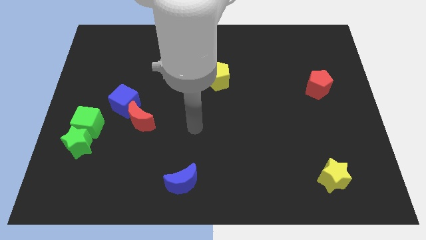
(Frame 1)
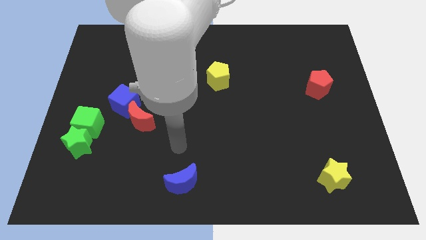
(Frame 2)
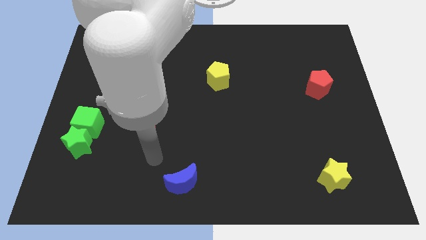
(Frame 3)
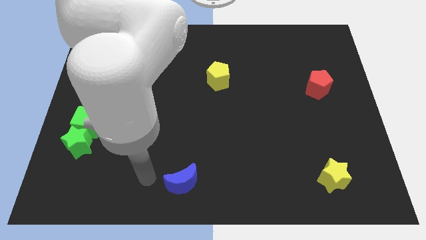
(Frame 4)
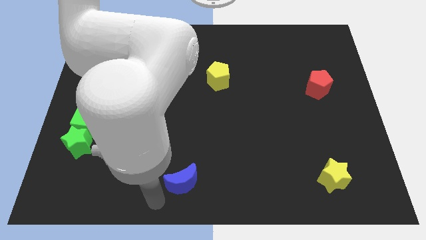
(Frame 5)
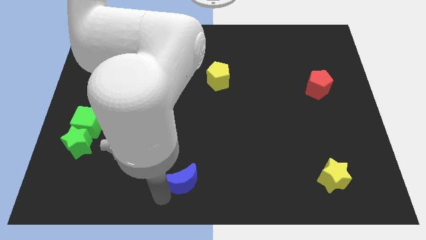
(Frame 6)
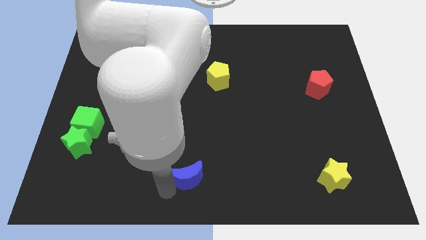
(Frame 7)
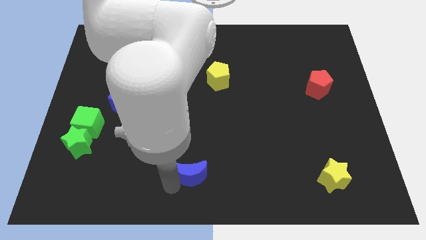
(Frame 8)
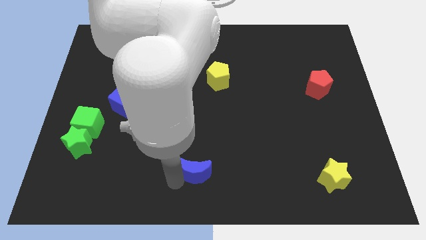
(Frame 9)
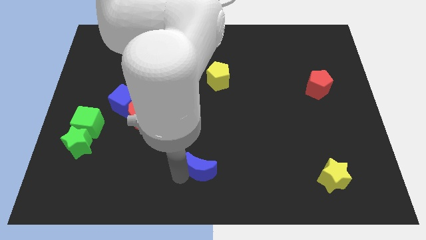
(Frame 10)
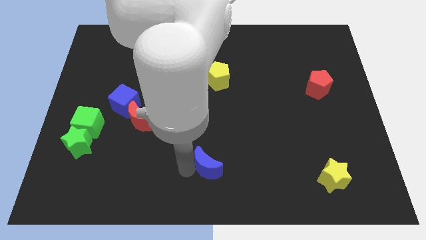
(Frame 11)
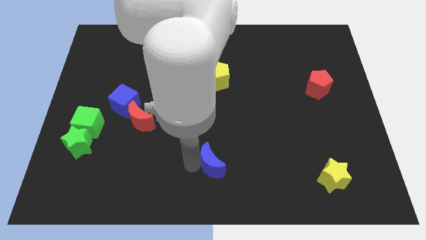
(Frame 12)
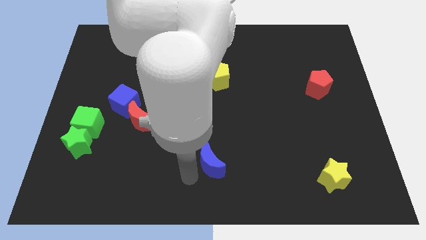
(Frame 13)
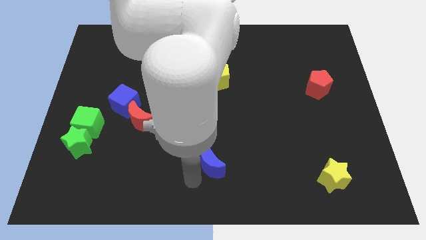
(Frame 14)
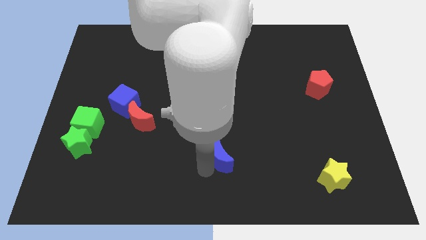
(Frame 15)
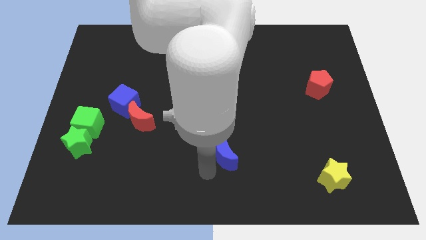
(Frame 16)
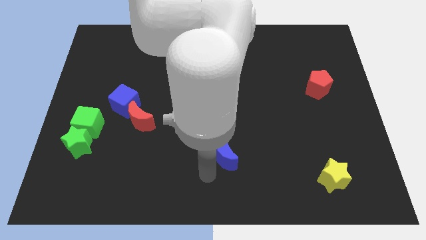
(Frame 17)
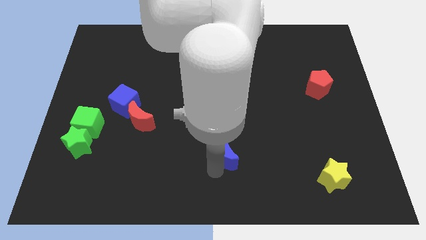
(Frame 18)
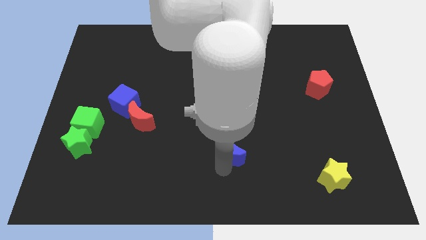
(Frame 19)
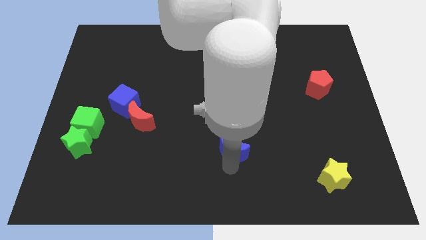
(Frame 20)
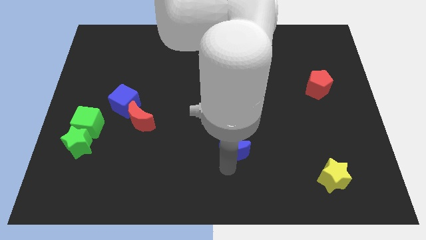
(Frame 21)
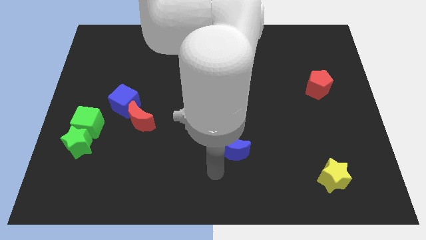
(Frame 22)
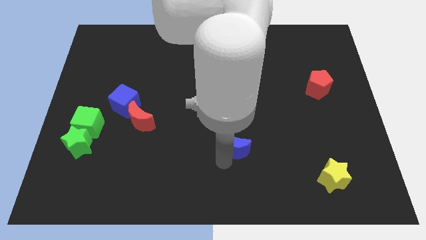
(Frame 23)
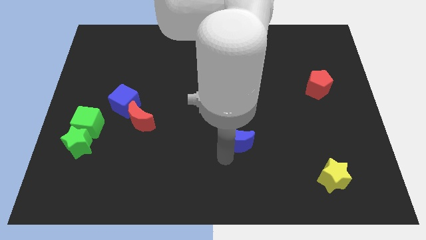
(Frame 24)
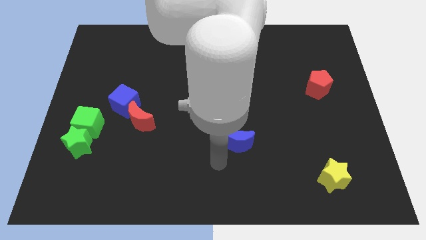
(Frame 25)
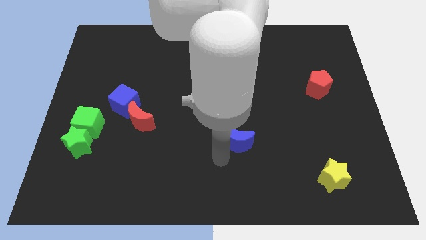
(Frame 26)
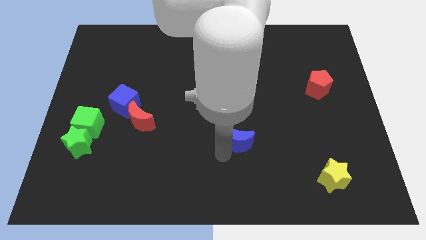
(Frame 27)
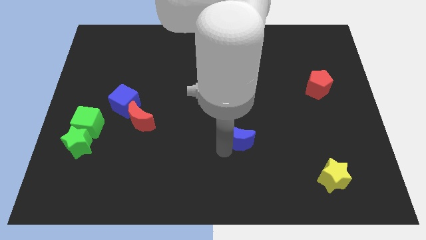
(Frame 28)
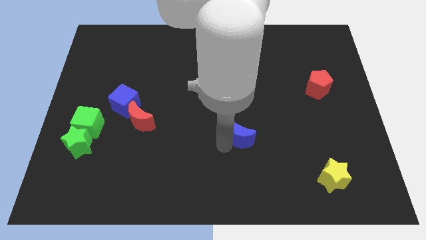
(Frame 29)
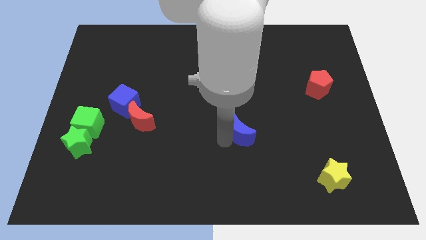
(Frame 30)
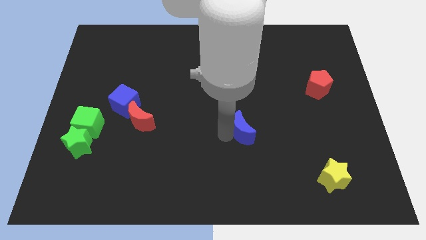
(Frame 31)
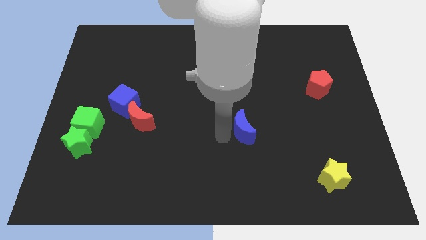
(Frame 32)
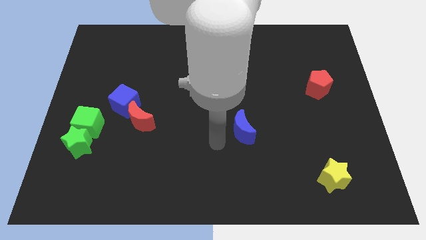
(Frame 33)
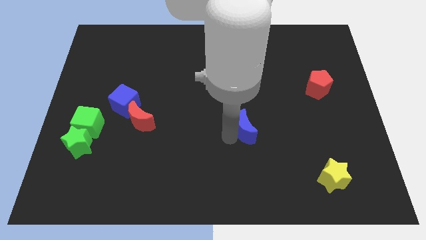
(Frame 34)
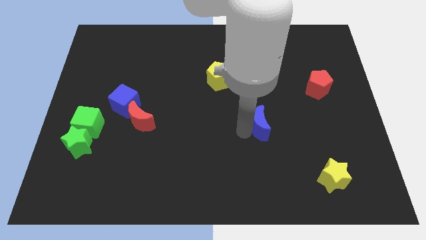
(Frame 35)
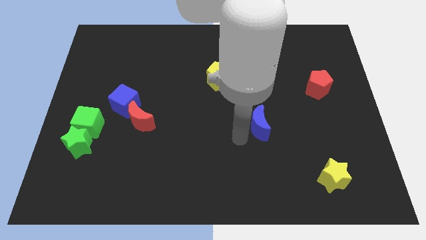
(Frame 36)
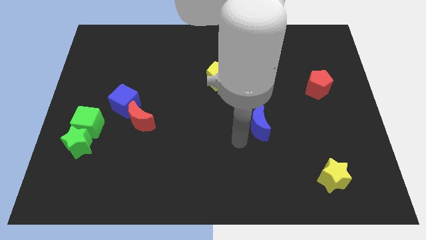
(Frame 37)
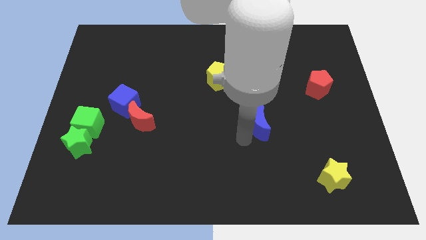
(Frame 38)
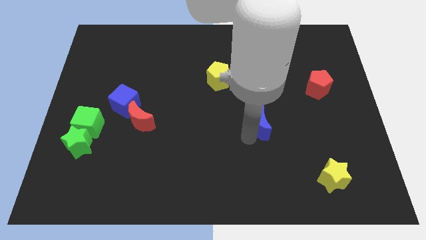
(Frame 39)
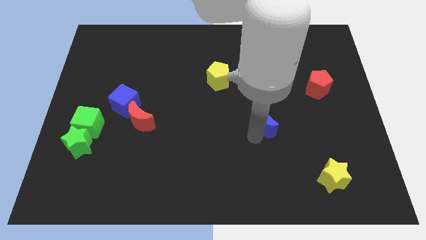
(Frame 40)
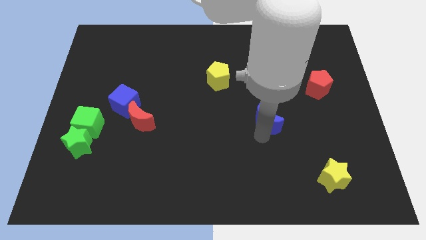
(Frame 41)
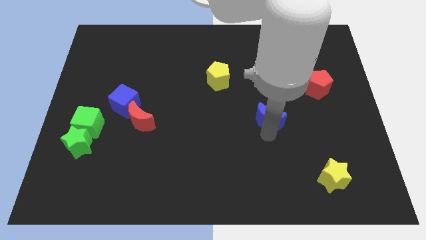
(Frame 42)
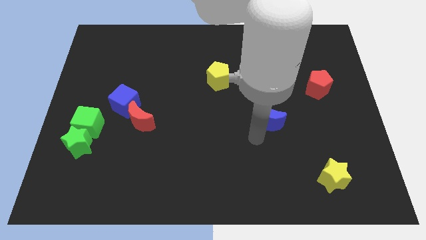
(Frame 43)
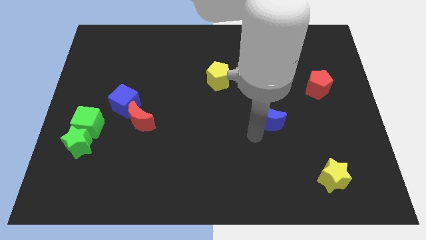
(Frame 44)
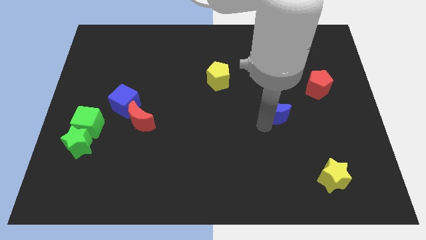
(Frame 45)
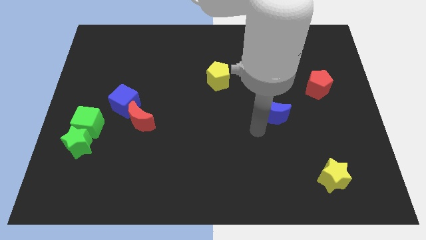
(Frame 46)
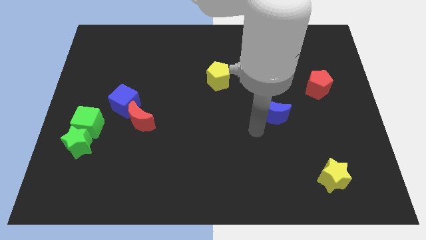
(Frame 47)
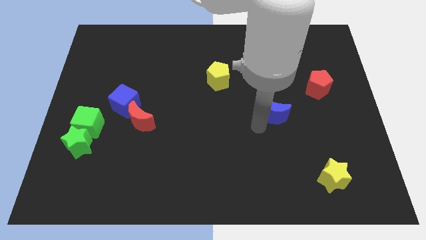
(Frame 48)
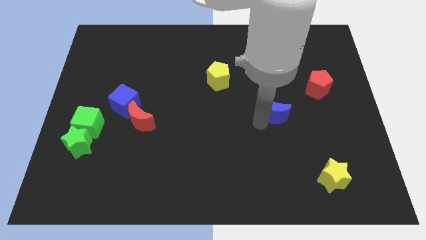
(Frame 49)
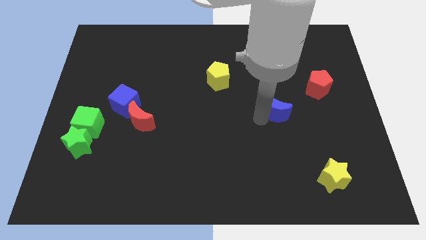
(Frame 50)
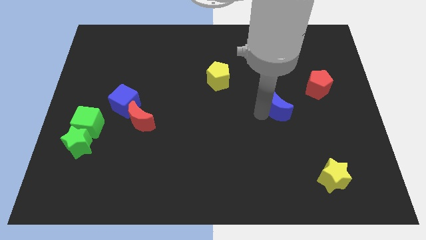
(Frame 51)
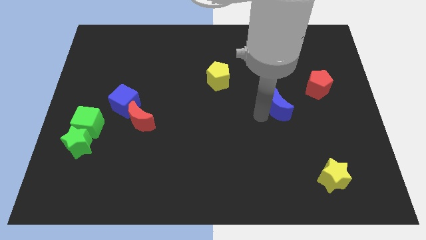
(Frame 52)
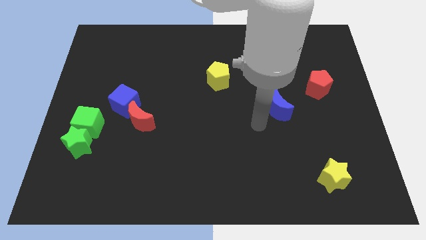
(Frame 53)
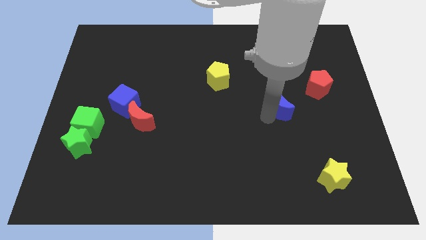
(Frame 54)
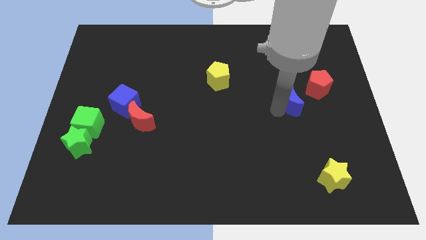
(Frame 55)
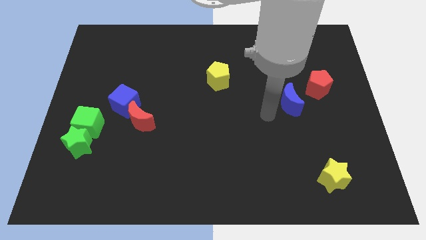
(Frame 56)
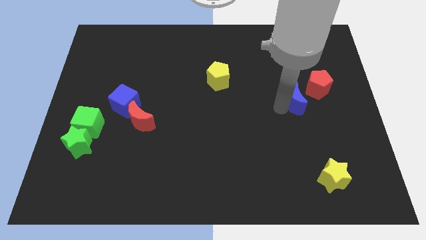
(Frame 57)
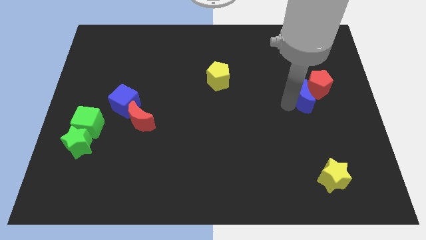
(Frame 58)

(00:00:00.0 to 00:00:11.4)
push the blue moon to the red pentagon

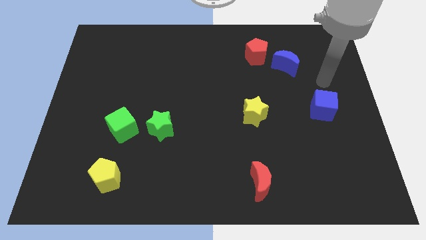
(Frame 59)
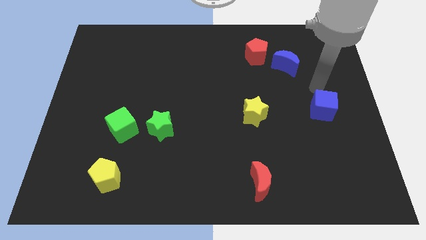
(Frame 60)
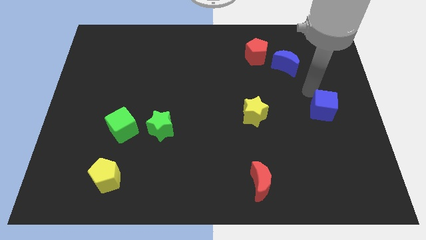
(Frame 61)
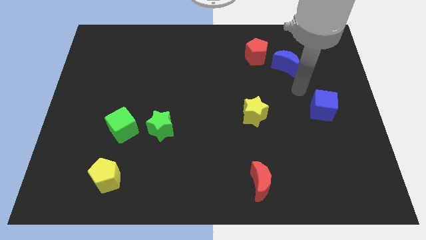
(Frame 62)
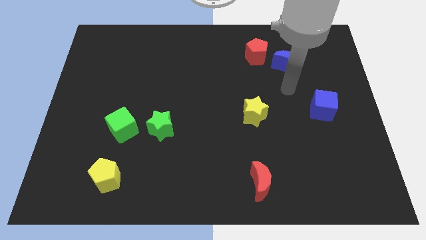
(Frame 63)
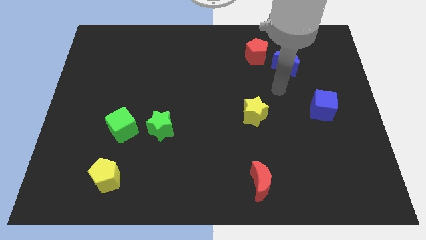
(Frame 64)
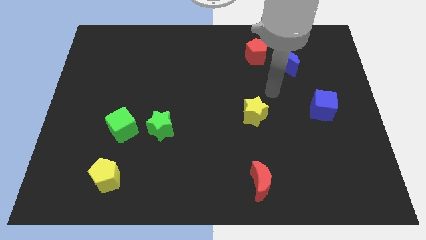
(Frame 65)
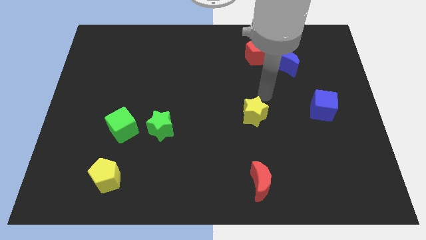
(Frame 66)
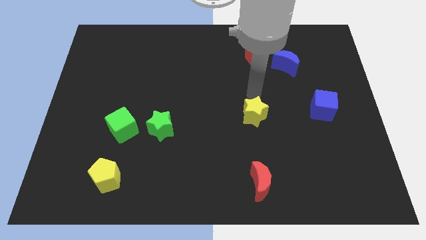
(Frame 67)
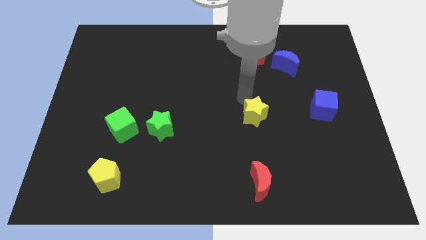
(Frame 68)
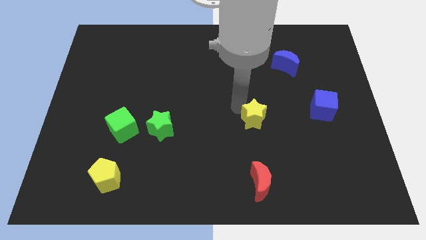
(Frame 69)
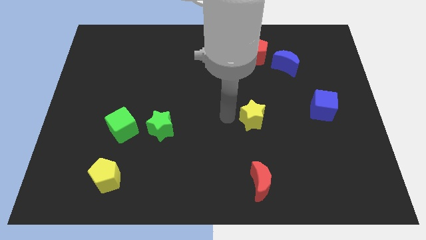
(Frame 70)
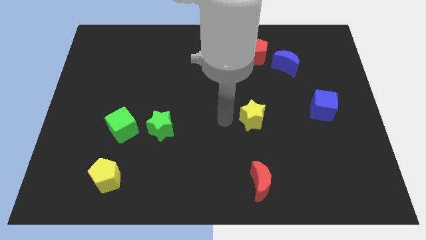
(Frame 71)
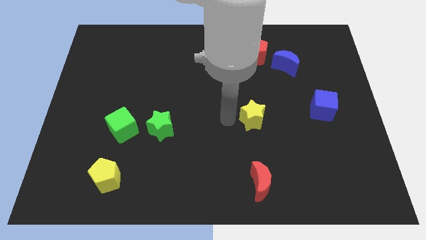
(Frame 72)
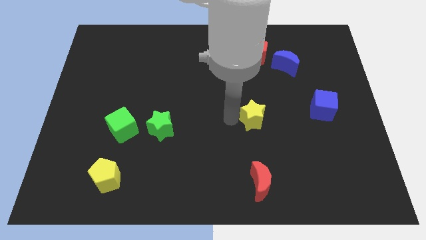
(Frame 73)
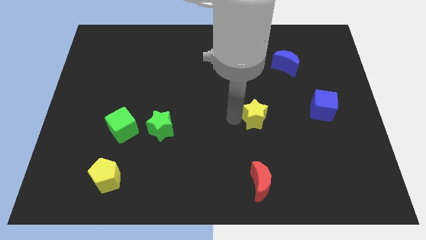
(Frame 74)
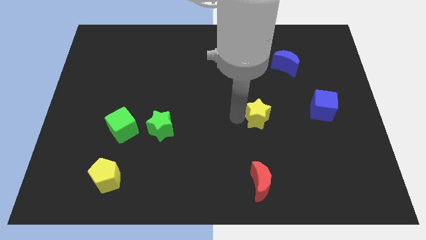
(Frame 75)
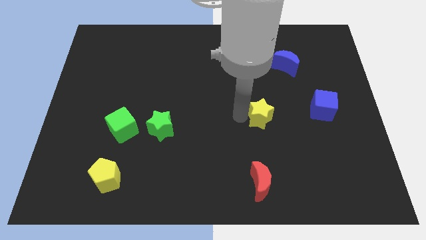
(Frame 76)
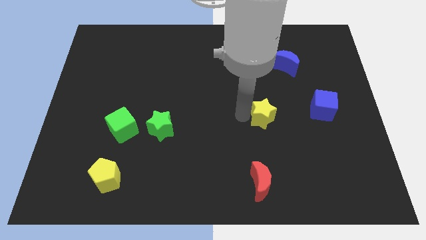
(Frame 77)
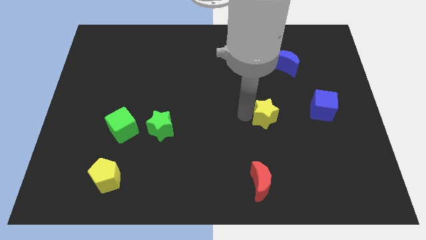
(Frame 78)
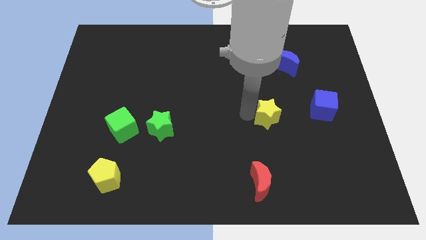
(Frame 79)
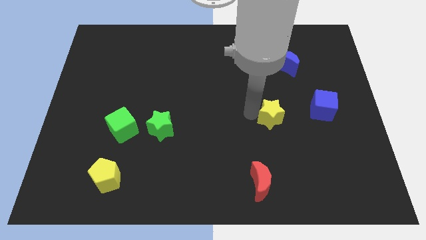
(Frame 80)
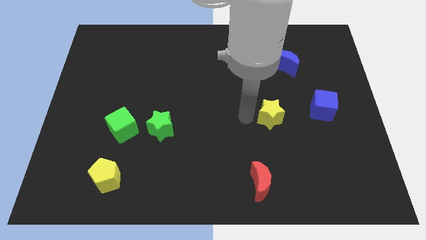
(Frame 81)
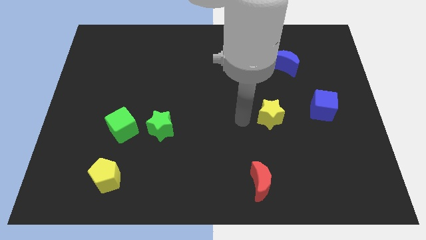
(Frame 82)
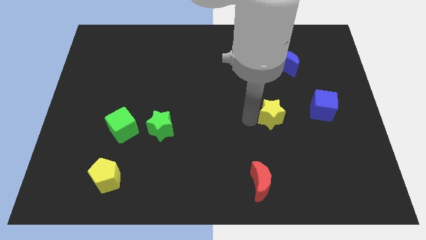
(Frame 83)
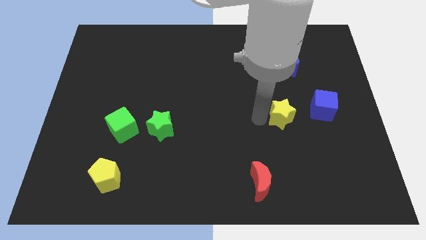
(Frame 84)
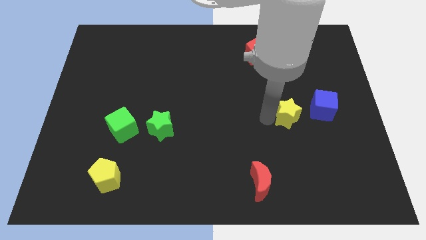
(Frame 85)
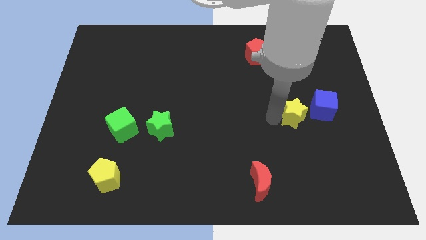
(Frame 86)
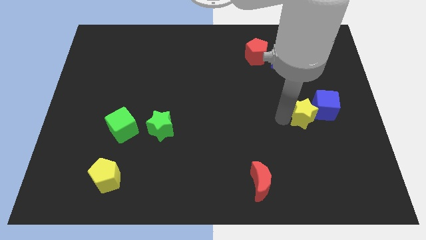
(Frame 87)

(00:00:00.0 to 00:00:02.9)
push the yellow star to the blue cube
